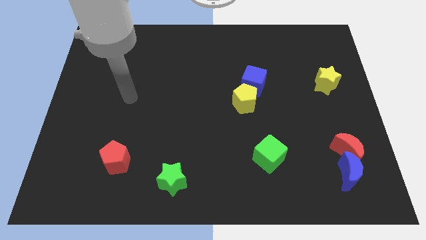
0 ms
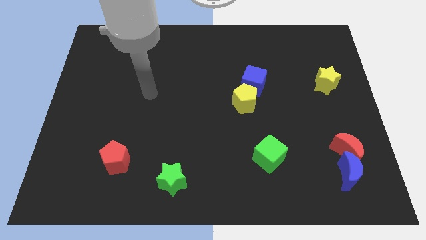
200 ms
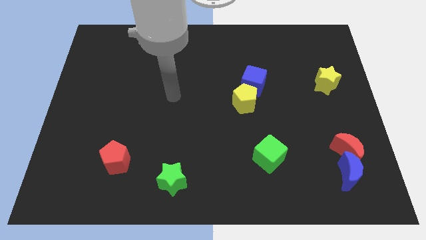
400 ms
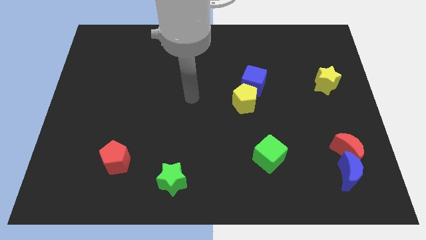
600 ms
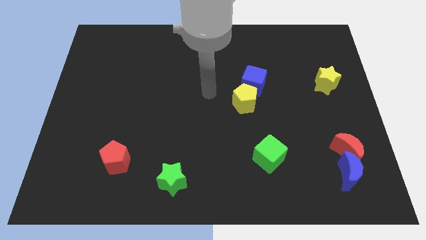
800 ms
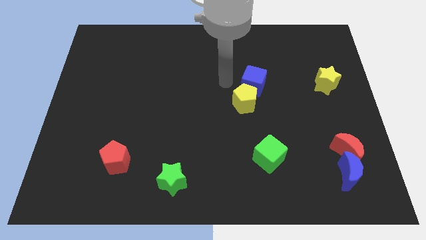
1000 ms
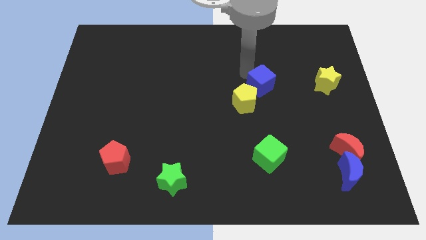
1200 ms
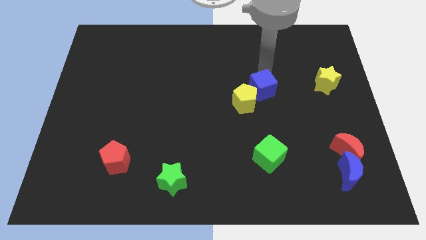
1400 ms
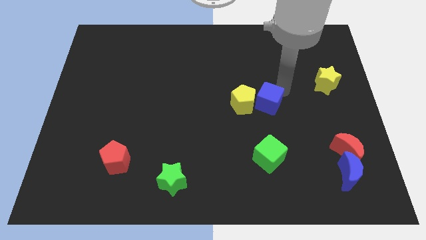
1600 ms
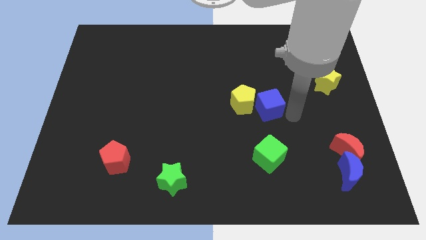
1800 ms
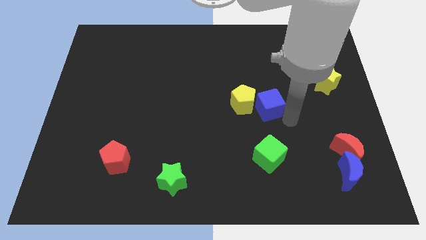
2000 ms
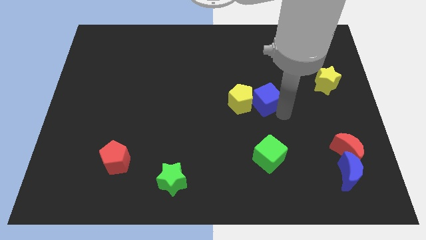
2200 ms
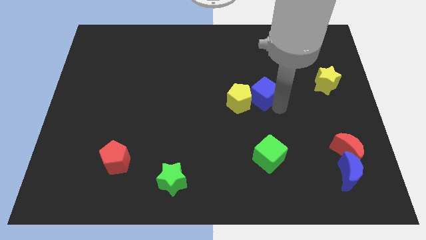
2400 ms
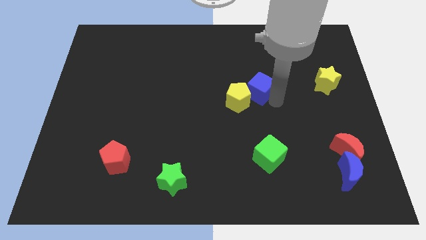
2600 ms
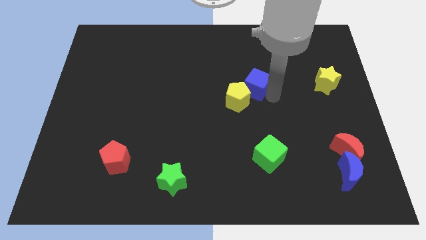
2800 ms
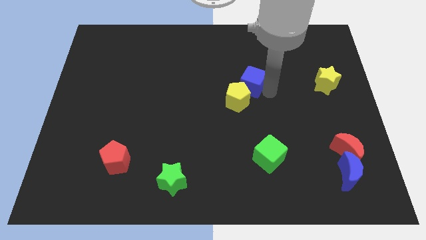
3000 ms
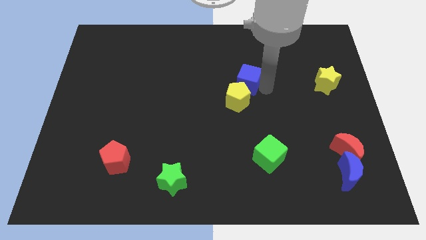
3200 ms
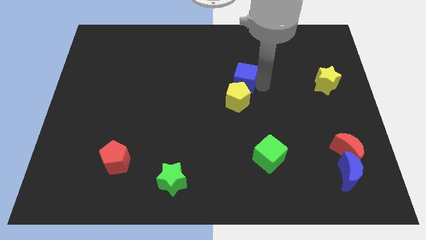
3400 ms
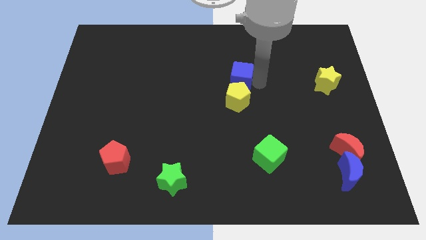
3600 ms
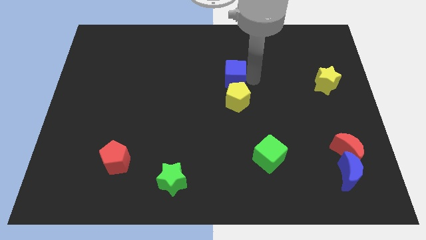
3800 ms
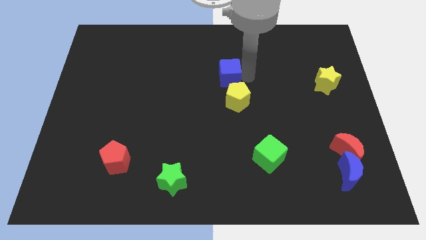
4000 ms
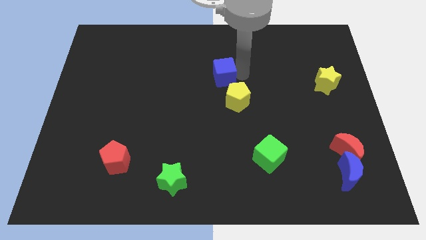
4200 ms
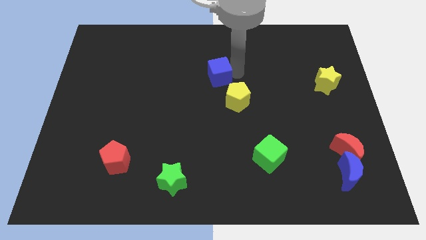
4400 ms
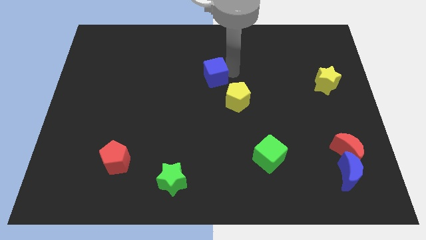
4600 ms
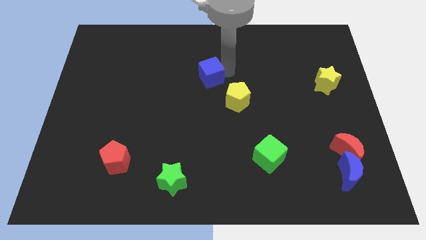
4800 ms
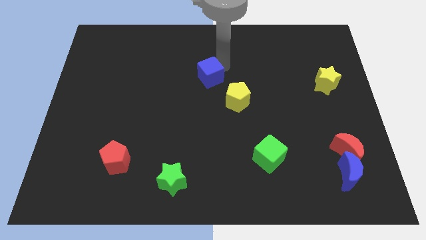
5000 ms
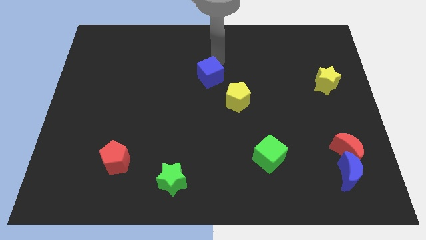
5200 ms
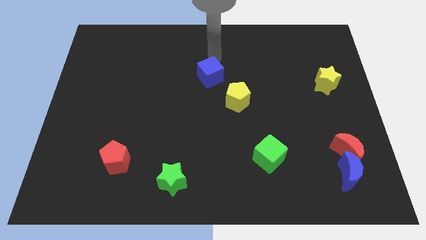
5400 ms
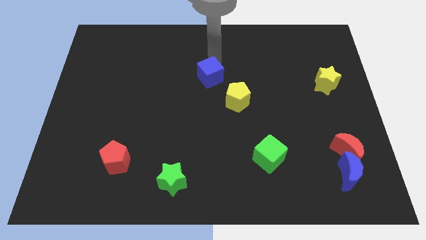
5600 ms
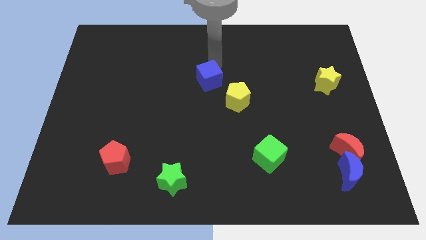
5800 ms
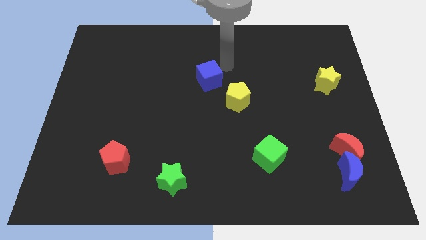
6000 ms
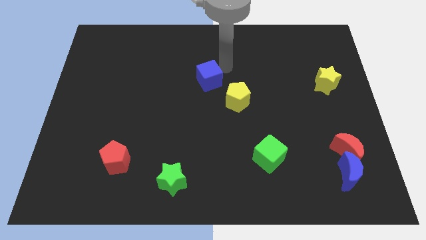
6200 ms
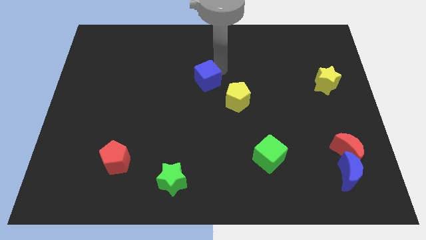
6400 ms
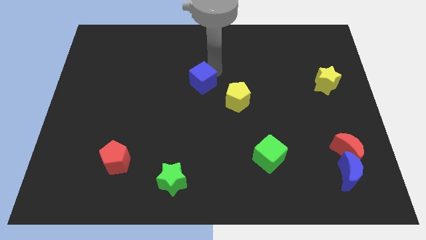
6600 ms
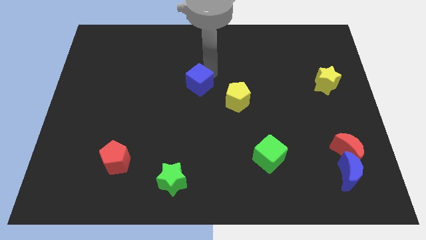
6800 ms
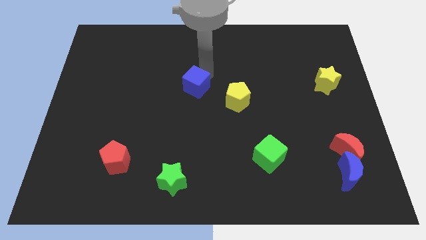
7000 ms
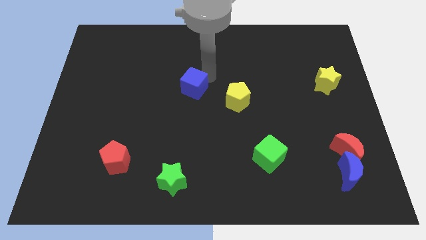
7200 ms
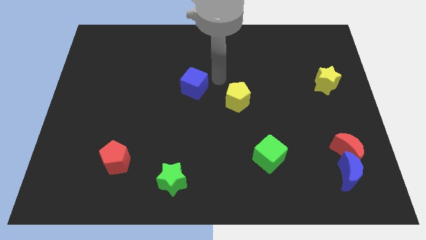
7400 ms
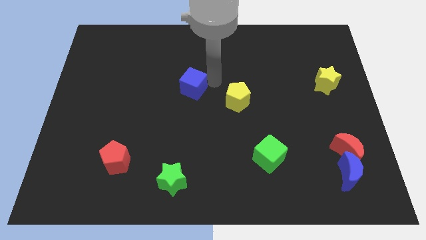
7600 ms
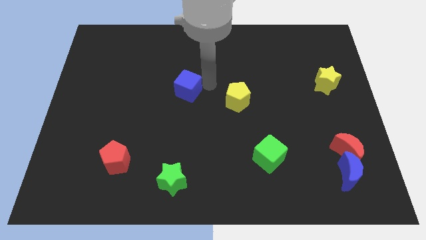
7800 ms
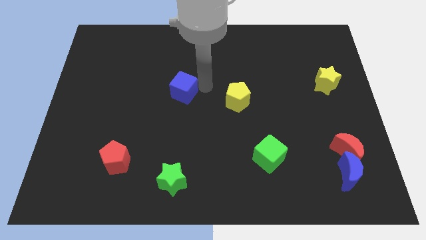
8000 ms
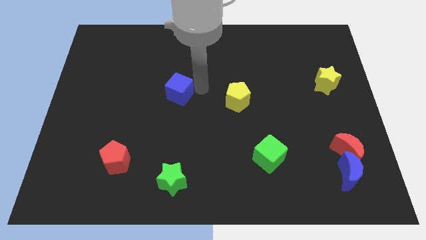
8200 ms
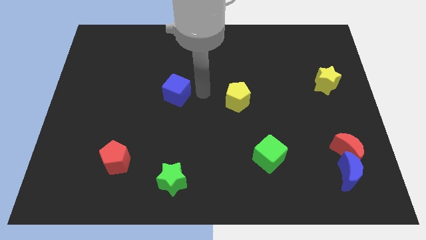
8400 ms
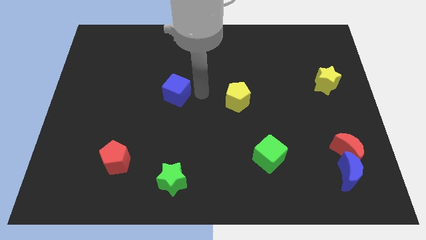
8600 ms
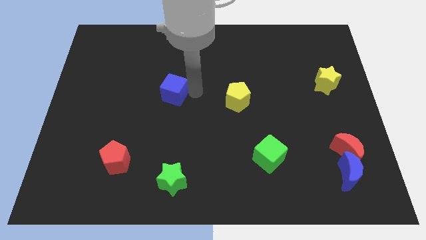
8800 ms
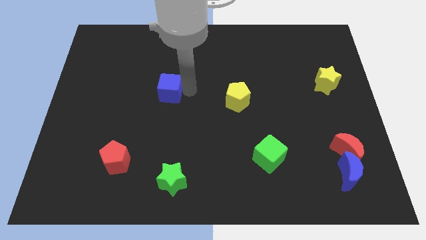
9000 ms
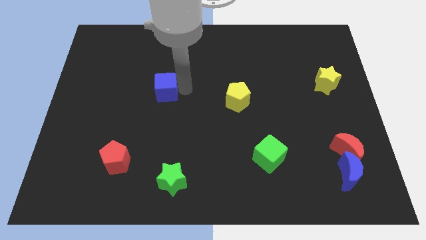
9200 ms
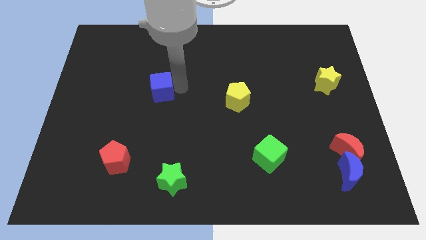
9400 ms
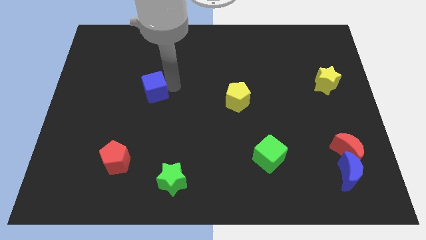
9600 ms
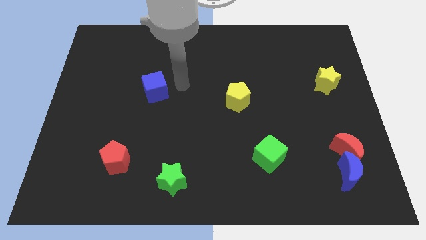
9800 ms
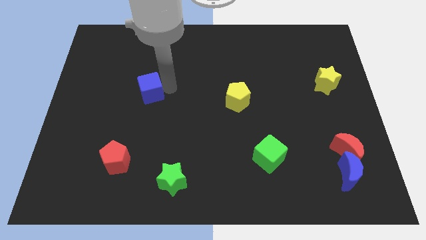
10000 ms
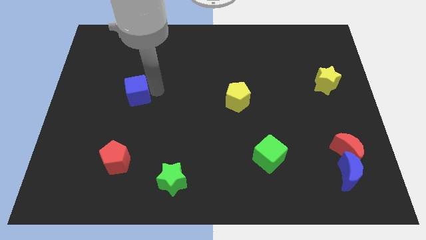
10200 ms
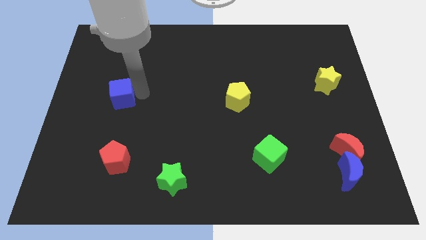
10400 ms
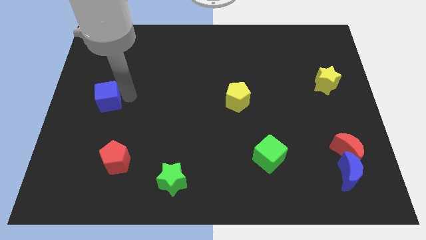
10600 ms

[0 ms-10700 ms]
put the blue cube to the center left

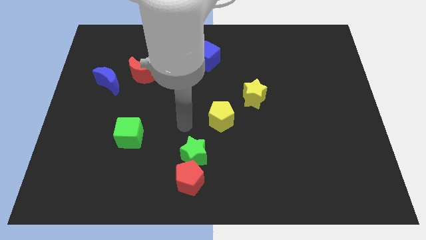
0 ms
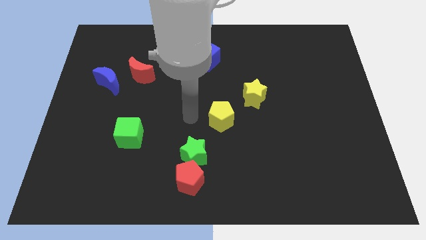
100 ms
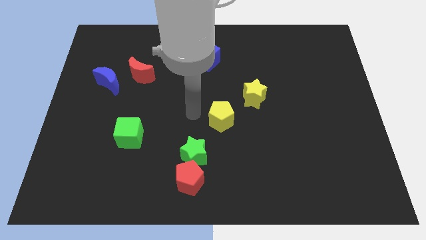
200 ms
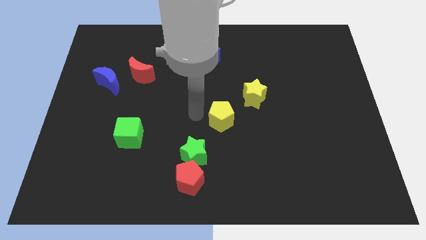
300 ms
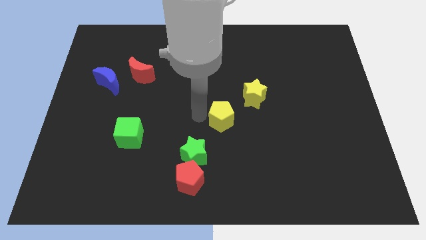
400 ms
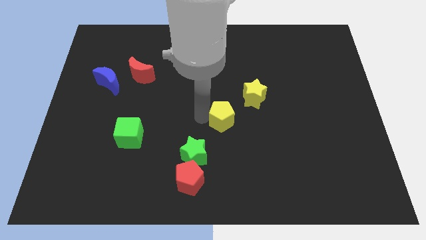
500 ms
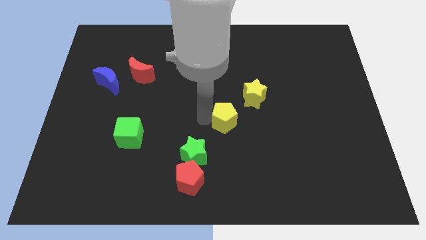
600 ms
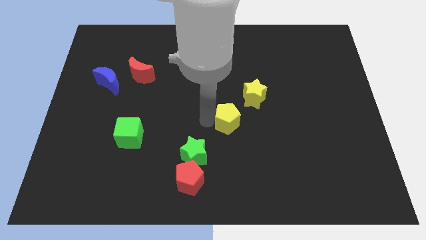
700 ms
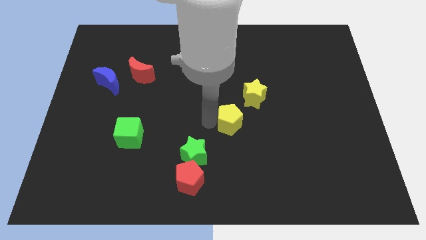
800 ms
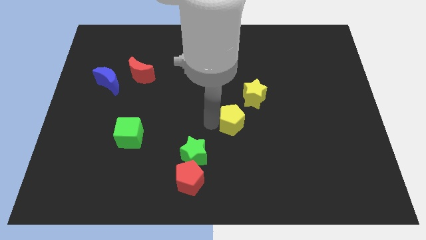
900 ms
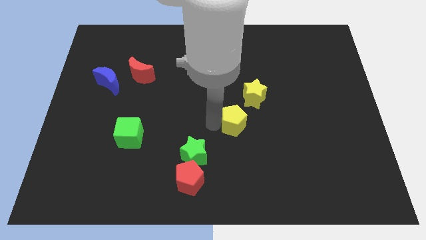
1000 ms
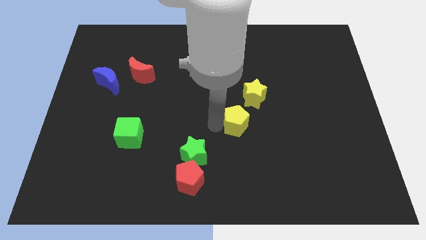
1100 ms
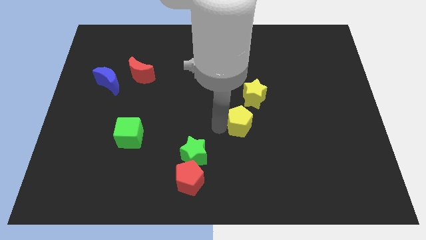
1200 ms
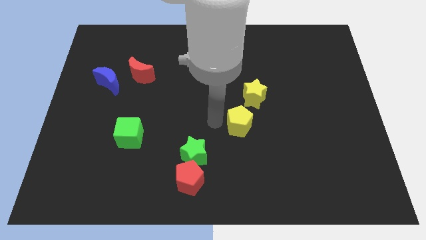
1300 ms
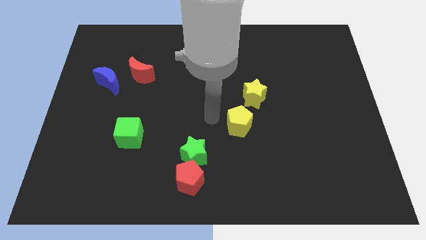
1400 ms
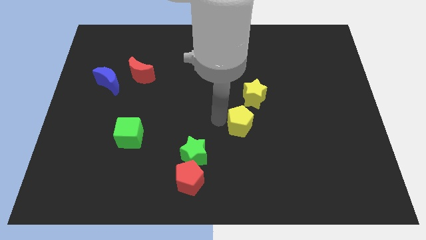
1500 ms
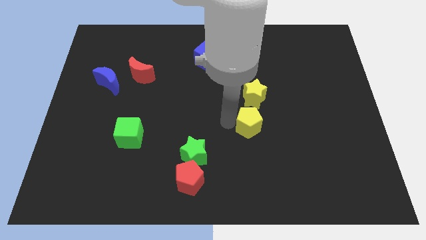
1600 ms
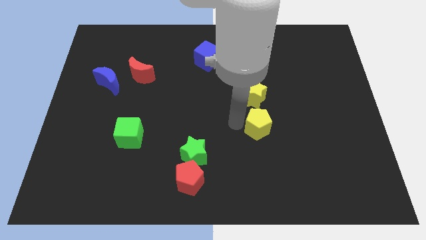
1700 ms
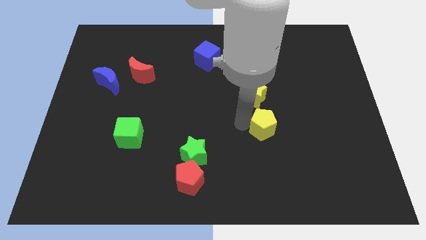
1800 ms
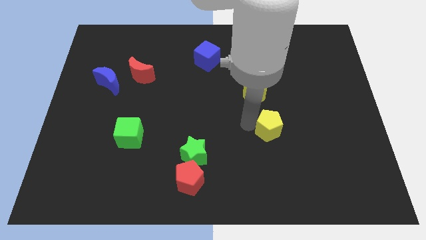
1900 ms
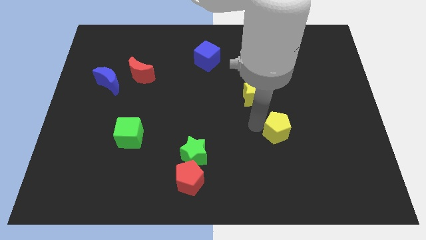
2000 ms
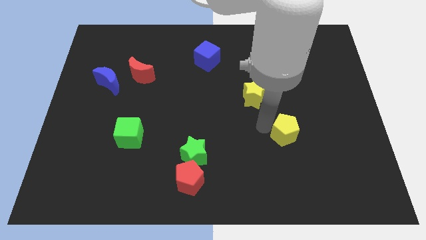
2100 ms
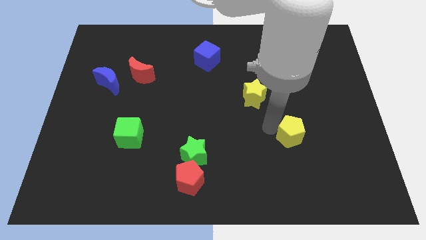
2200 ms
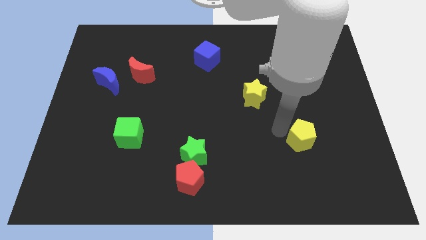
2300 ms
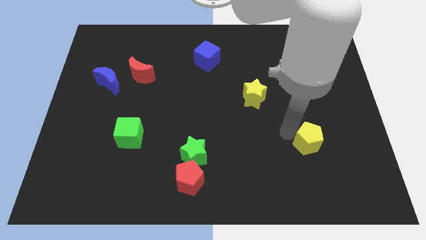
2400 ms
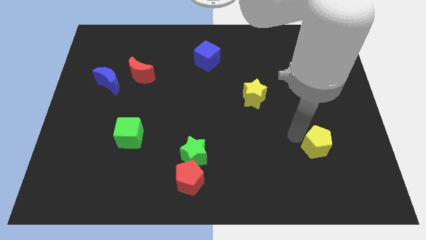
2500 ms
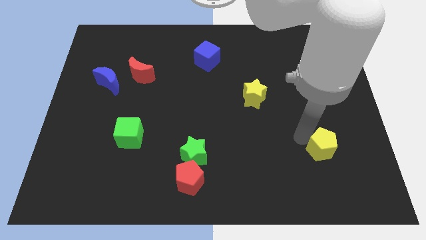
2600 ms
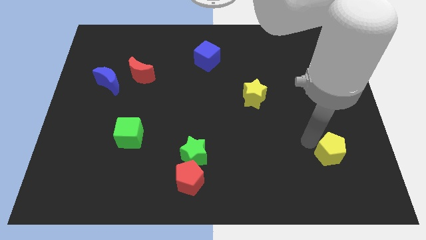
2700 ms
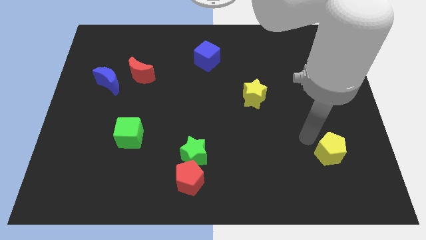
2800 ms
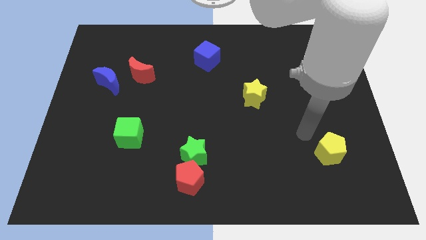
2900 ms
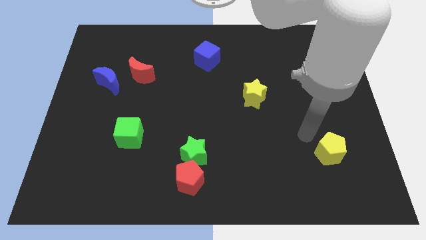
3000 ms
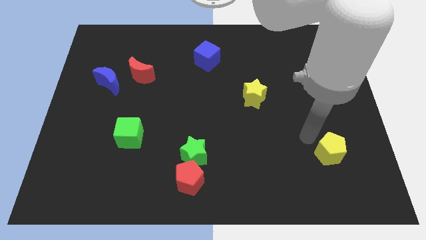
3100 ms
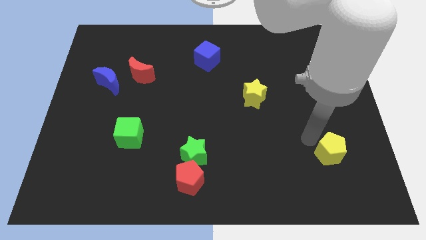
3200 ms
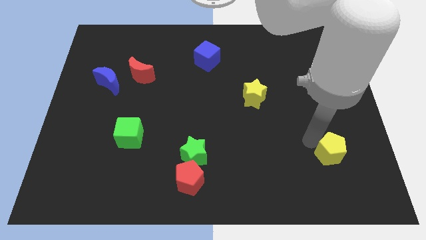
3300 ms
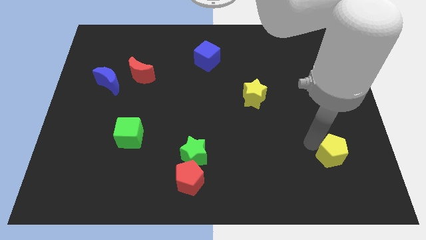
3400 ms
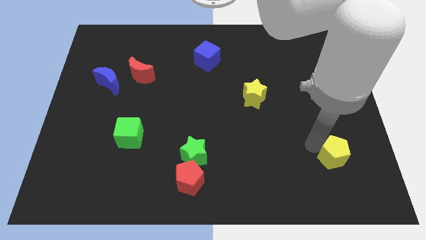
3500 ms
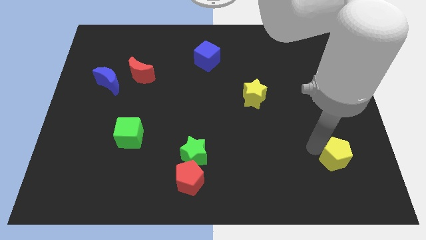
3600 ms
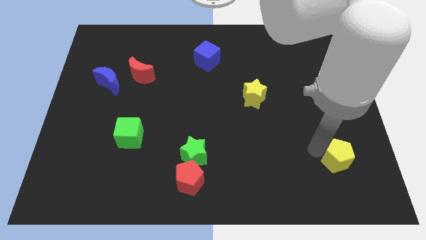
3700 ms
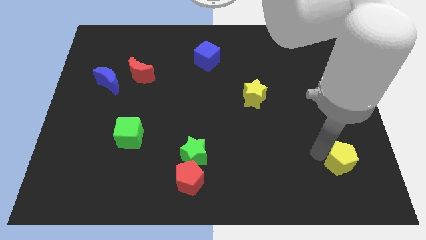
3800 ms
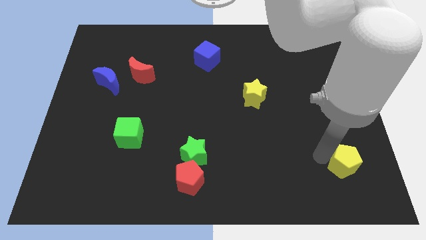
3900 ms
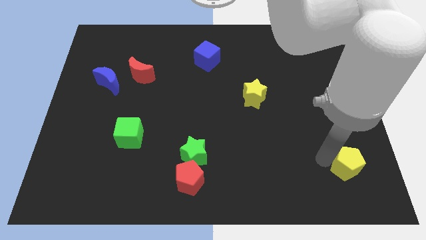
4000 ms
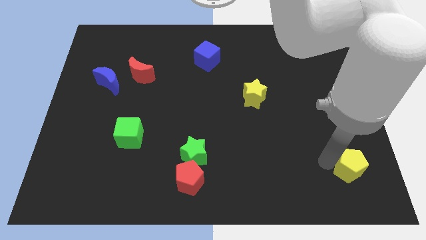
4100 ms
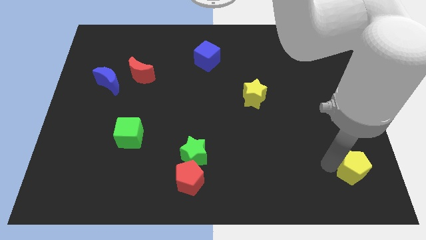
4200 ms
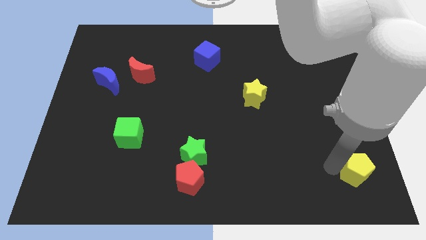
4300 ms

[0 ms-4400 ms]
slide the yellow pentagon to the bottom right
